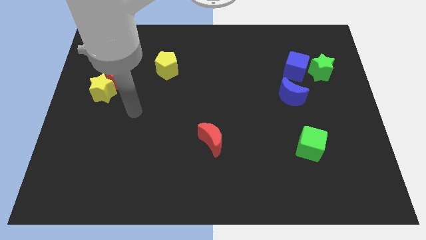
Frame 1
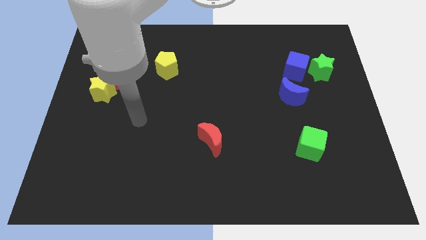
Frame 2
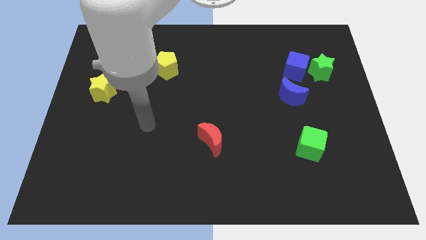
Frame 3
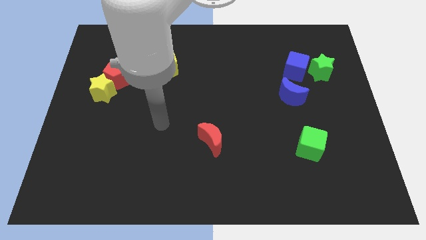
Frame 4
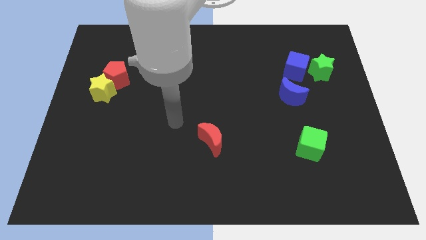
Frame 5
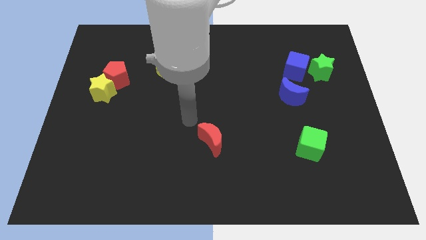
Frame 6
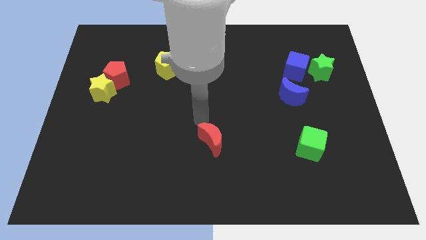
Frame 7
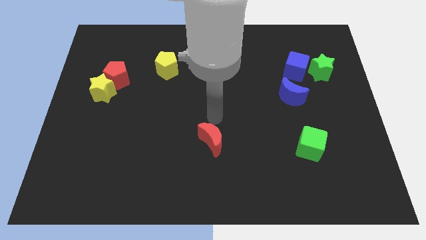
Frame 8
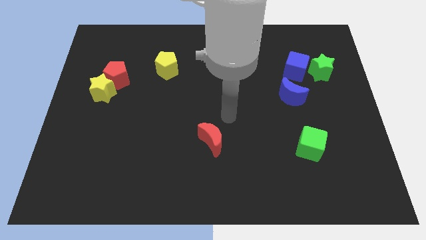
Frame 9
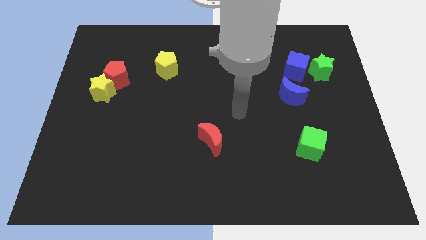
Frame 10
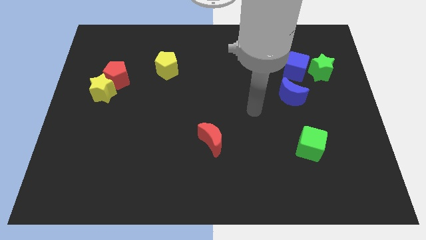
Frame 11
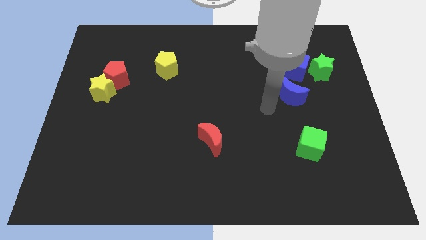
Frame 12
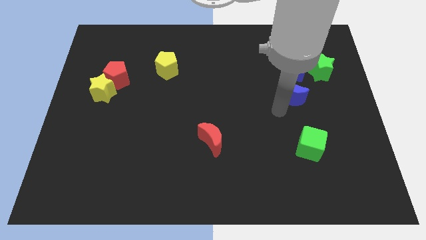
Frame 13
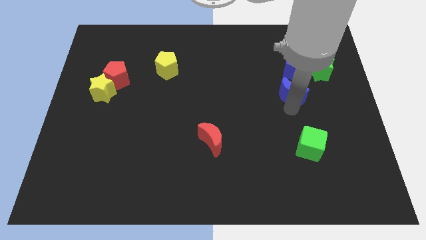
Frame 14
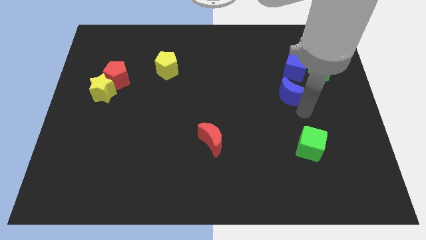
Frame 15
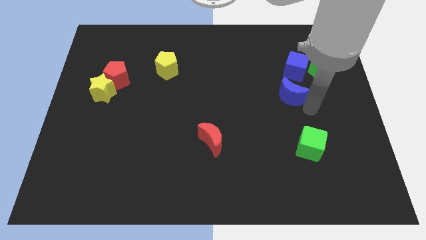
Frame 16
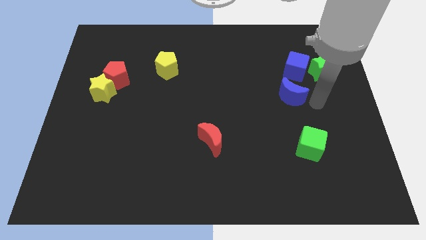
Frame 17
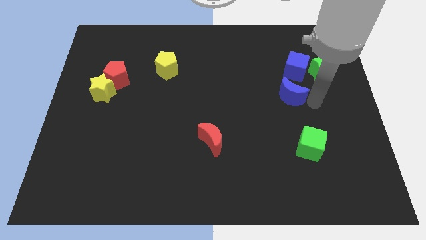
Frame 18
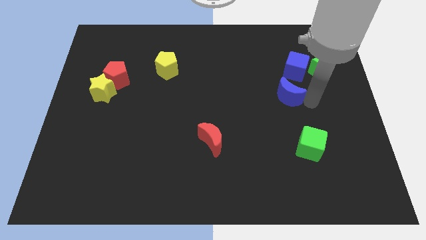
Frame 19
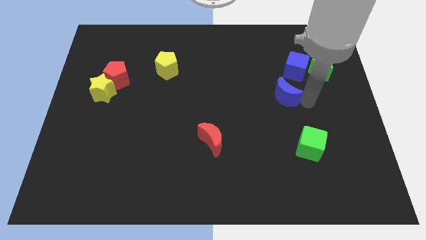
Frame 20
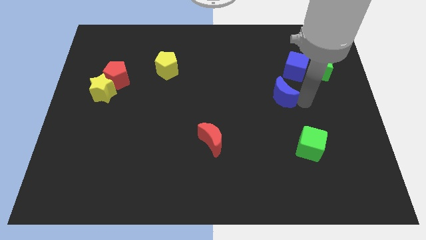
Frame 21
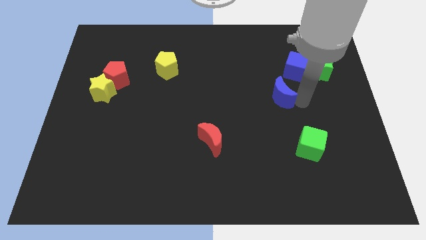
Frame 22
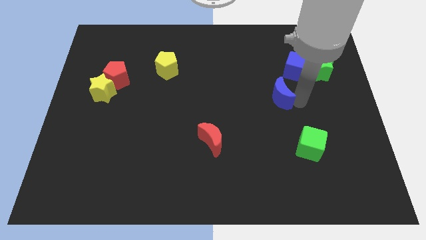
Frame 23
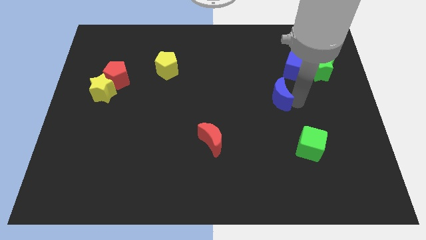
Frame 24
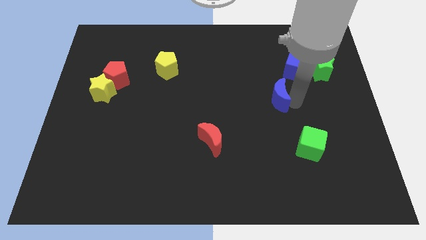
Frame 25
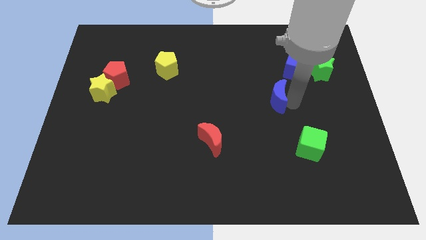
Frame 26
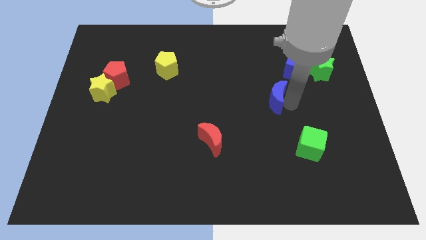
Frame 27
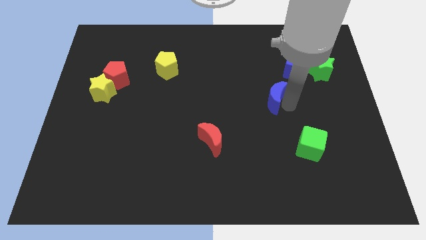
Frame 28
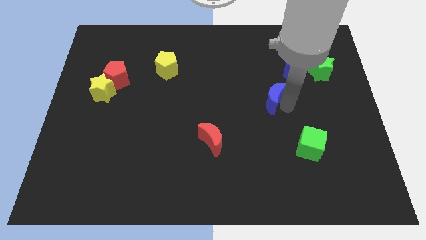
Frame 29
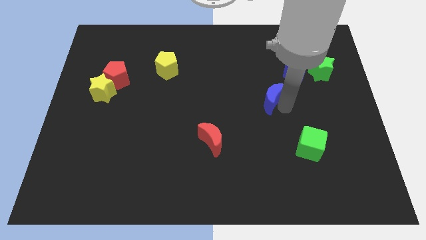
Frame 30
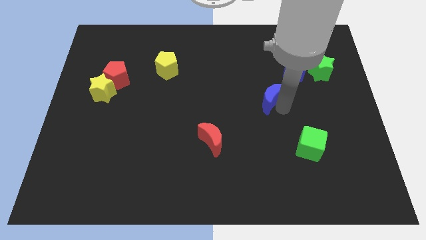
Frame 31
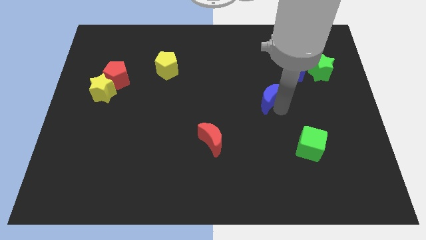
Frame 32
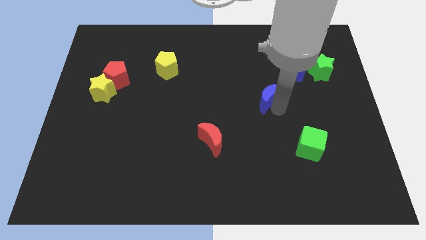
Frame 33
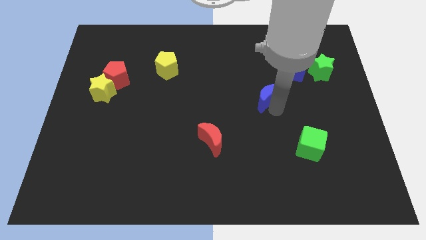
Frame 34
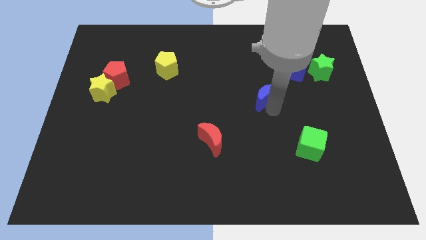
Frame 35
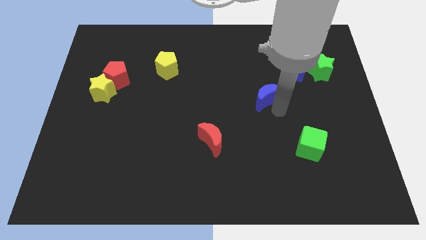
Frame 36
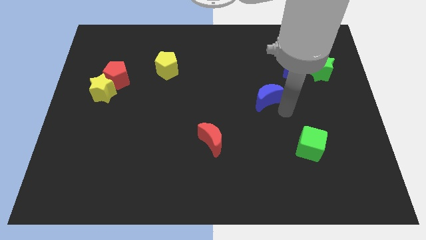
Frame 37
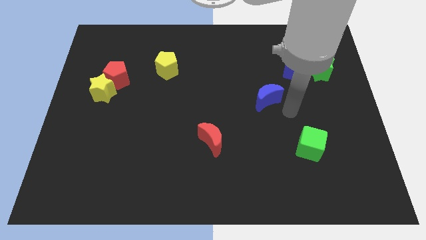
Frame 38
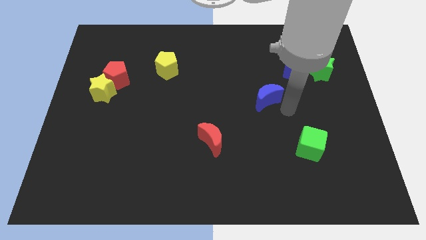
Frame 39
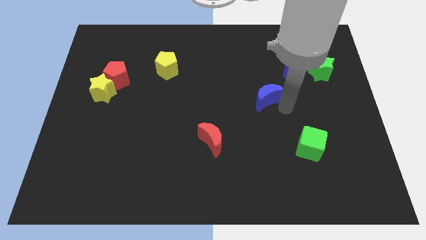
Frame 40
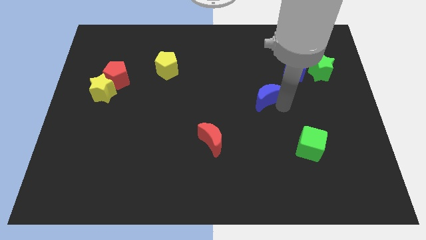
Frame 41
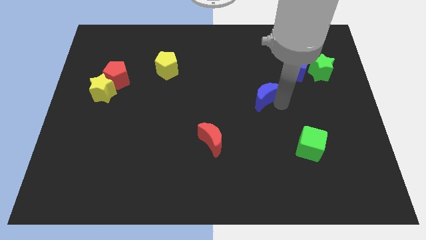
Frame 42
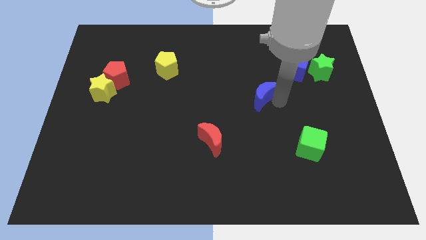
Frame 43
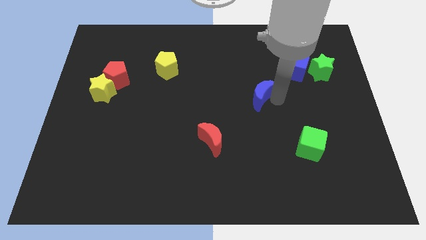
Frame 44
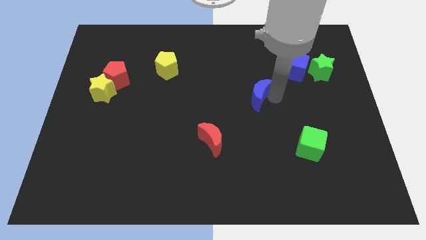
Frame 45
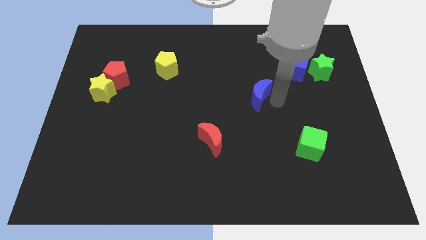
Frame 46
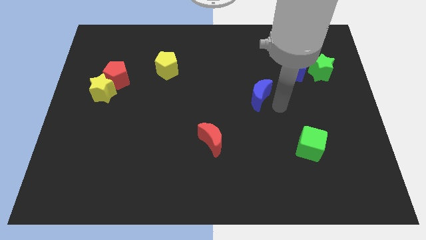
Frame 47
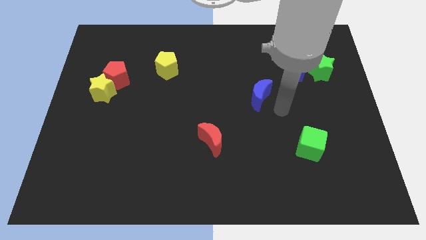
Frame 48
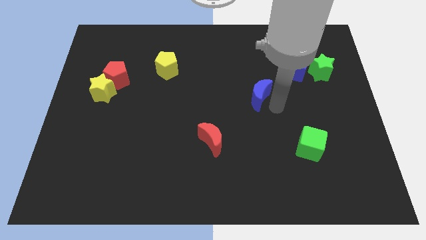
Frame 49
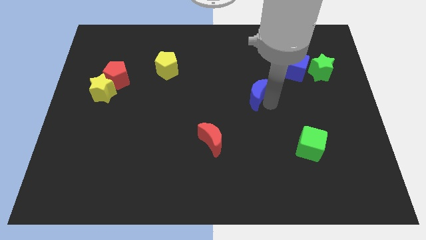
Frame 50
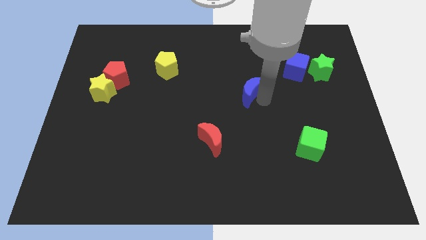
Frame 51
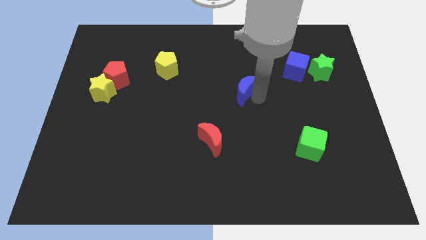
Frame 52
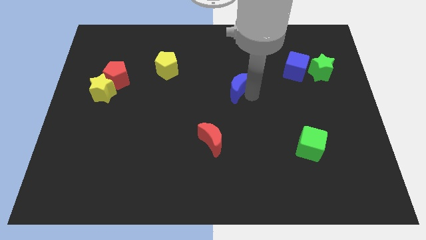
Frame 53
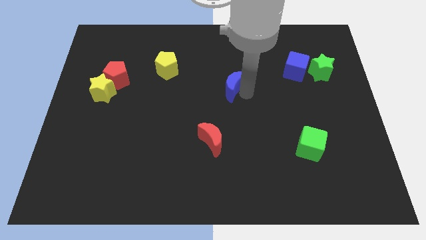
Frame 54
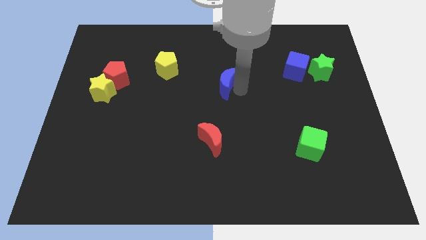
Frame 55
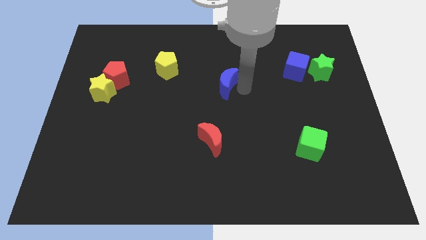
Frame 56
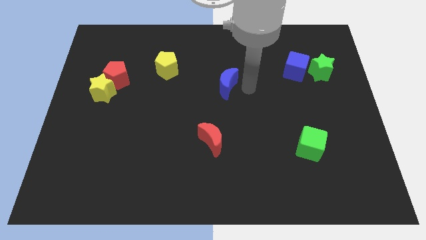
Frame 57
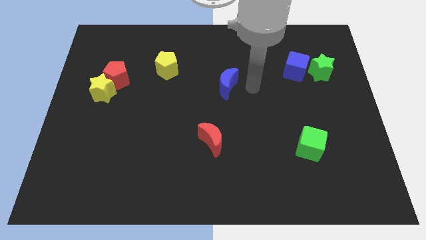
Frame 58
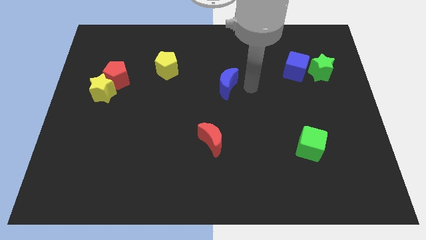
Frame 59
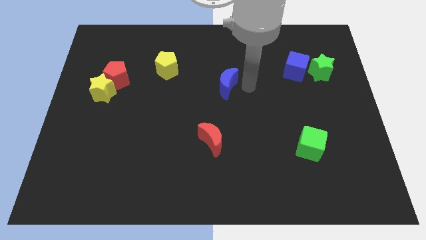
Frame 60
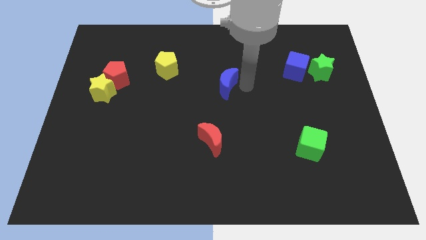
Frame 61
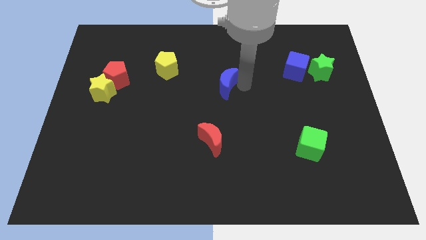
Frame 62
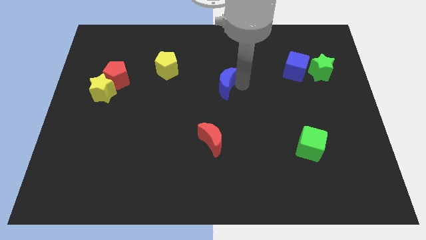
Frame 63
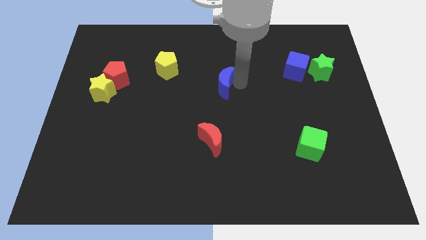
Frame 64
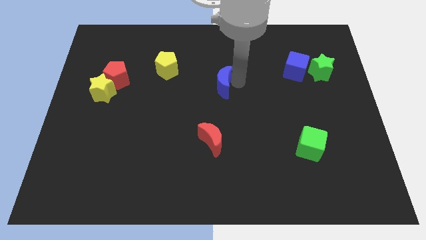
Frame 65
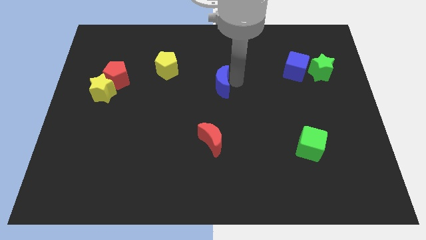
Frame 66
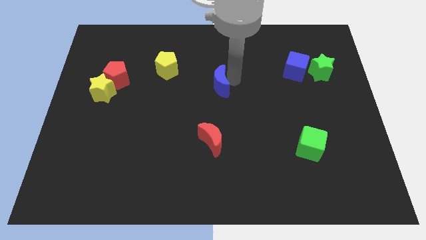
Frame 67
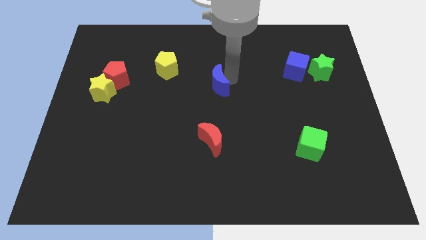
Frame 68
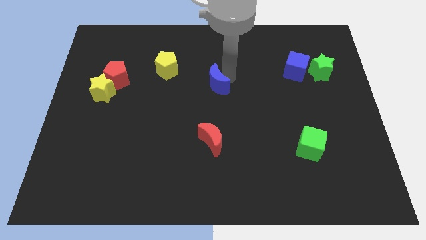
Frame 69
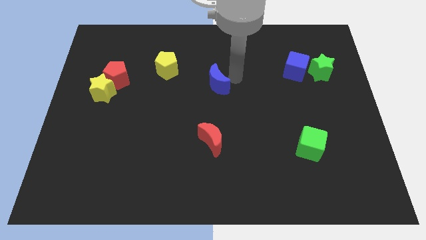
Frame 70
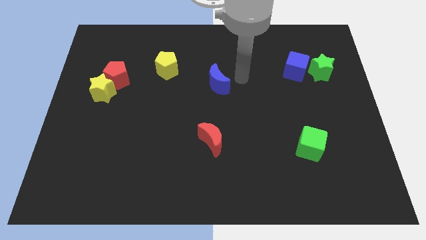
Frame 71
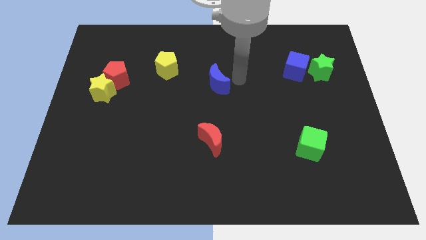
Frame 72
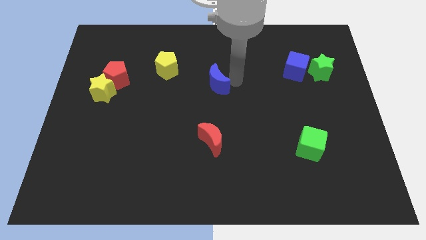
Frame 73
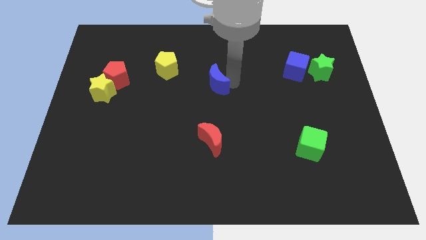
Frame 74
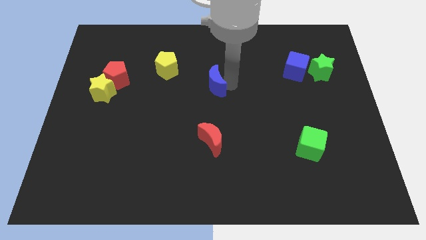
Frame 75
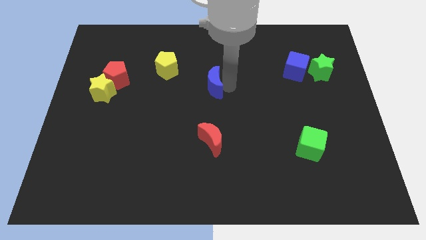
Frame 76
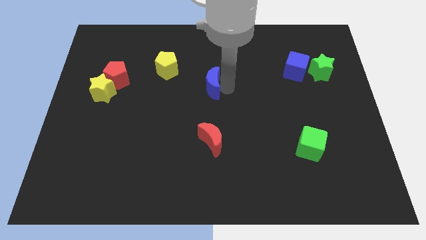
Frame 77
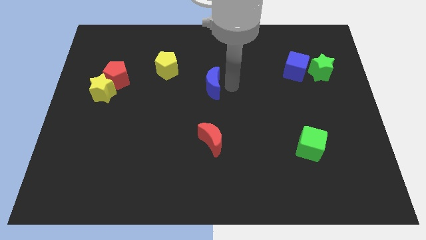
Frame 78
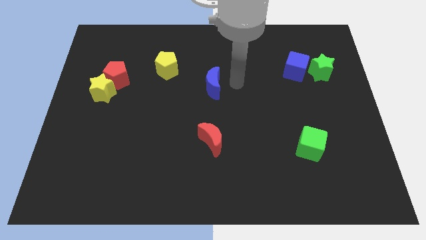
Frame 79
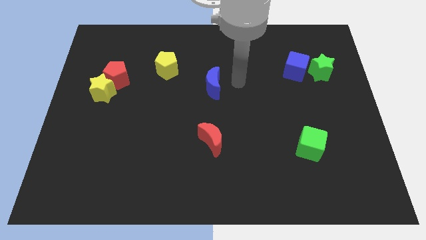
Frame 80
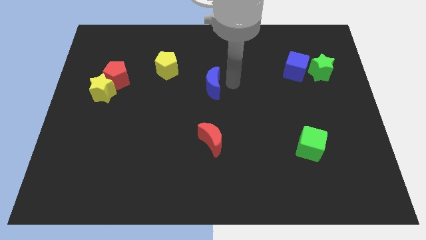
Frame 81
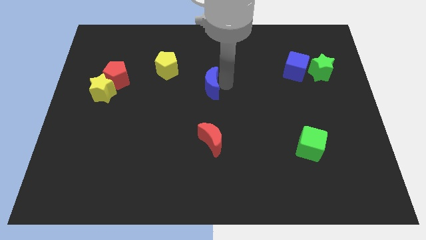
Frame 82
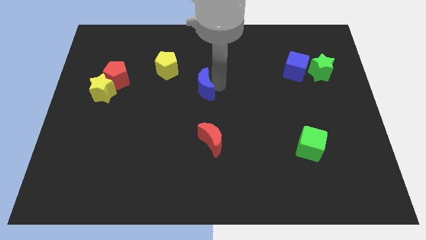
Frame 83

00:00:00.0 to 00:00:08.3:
slide the blue moon left
